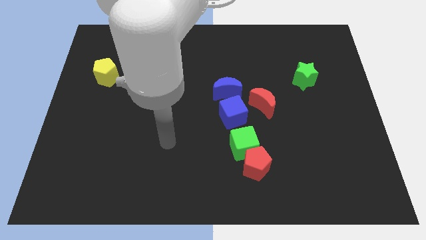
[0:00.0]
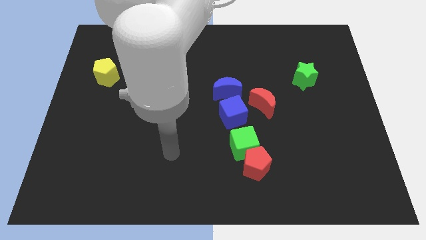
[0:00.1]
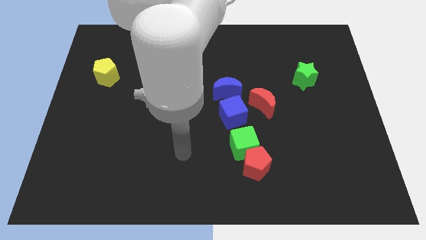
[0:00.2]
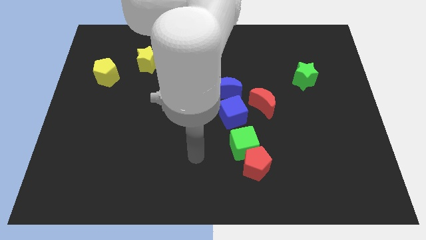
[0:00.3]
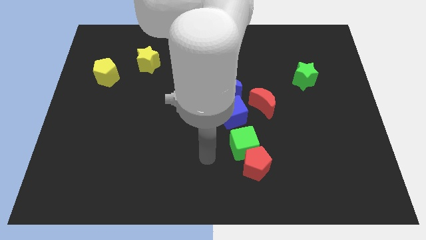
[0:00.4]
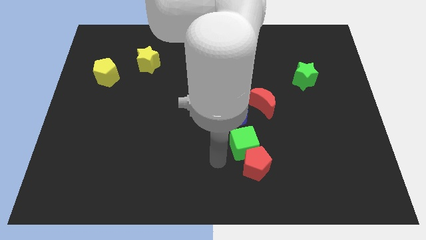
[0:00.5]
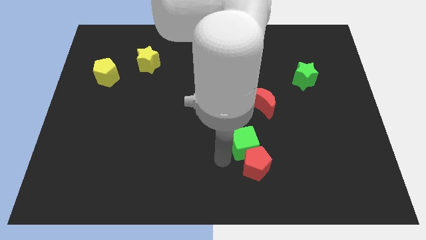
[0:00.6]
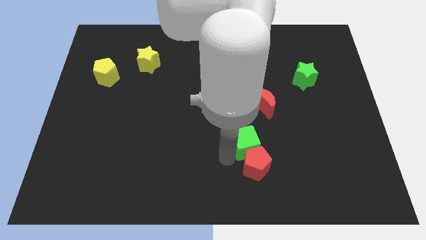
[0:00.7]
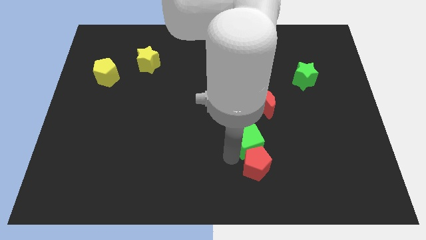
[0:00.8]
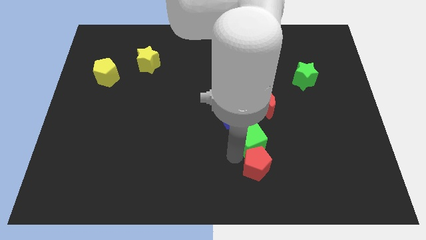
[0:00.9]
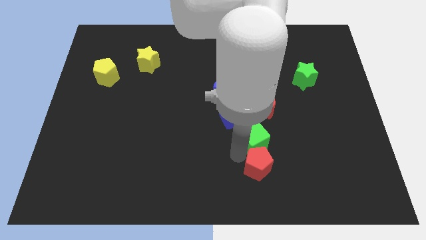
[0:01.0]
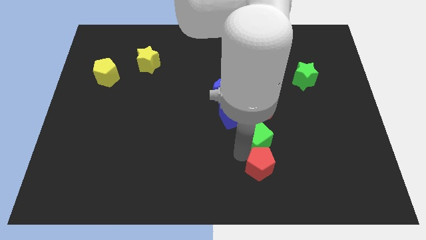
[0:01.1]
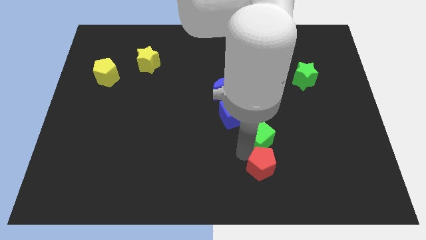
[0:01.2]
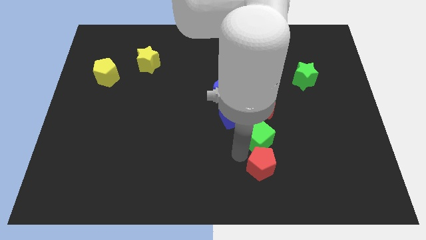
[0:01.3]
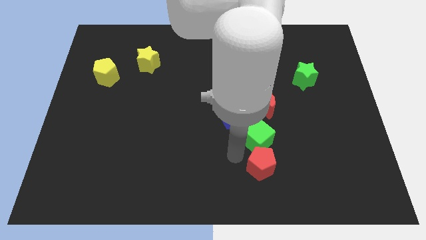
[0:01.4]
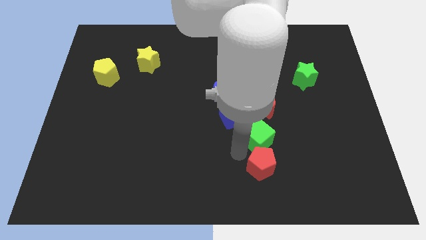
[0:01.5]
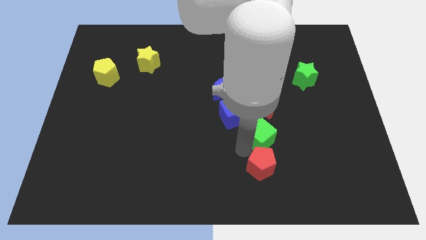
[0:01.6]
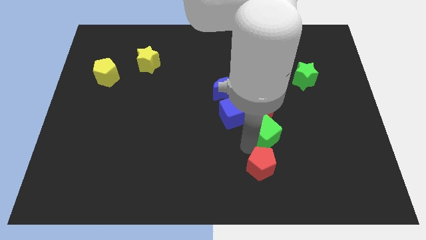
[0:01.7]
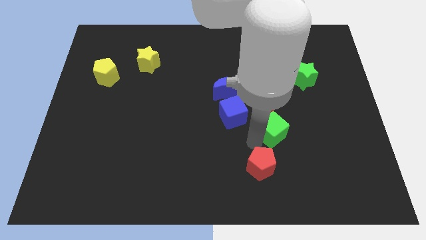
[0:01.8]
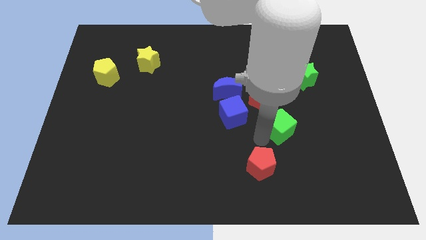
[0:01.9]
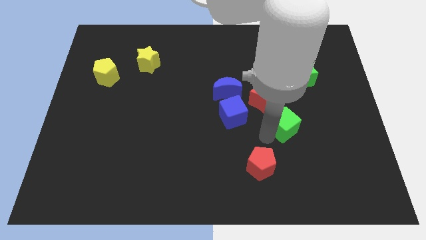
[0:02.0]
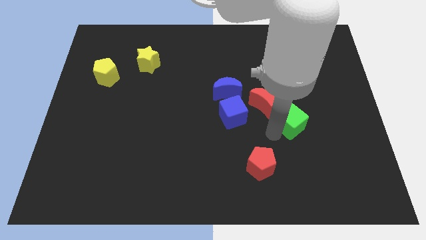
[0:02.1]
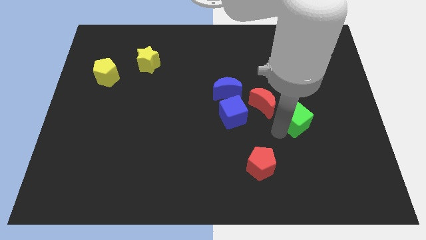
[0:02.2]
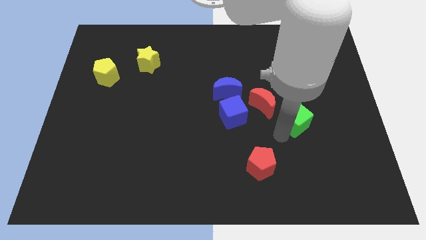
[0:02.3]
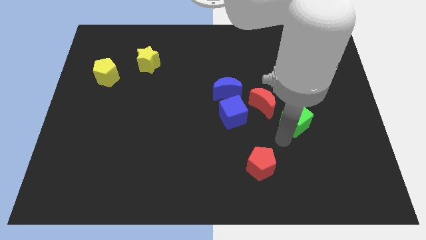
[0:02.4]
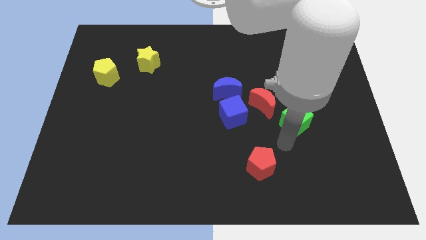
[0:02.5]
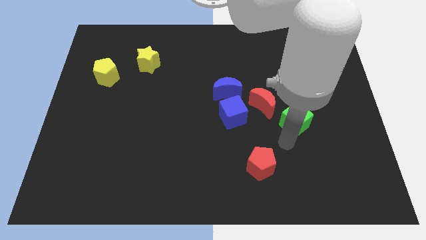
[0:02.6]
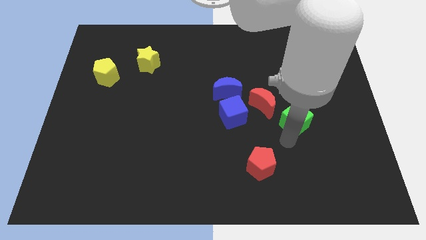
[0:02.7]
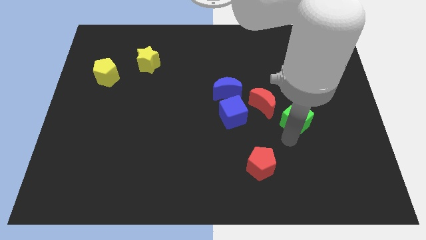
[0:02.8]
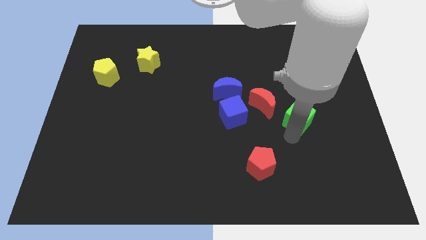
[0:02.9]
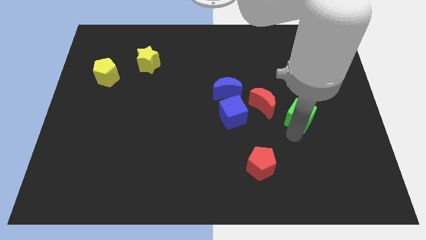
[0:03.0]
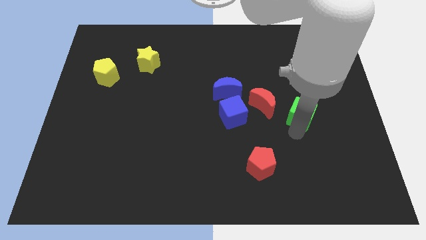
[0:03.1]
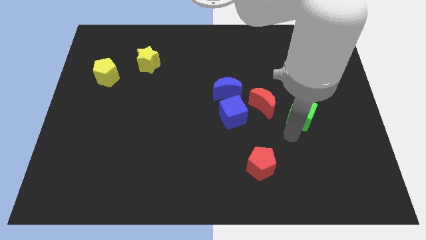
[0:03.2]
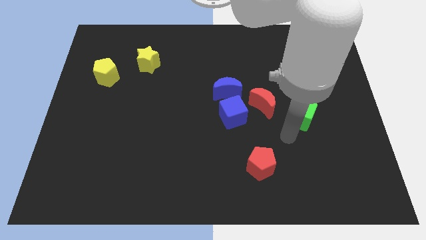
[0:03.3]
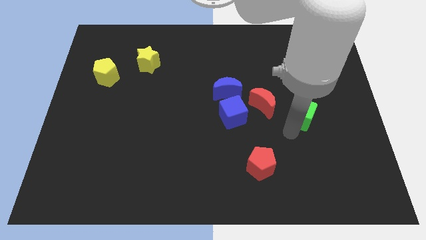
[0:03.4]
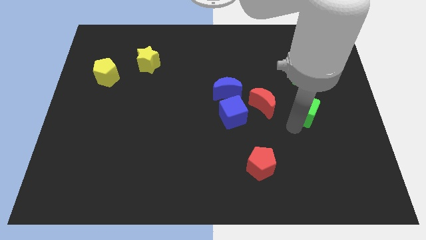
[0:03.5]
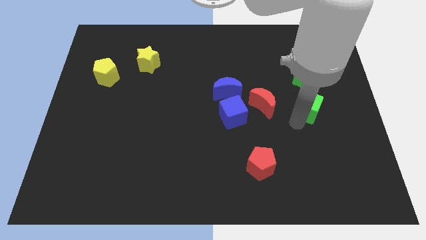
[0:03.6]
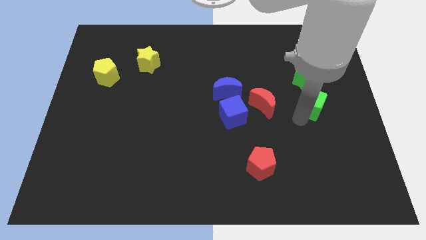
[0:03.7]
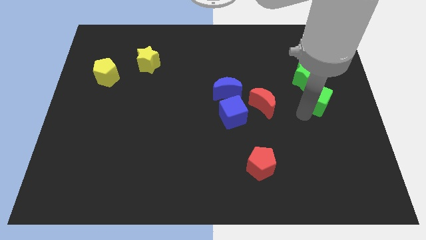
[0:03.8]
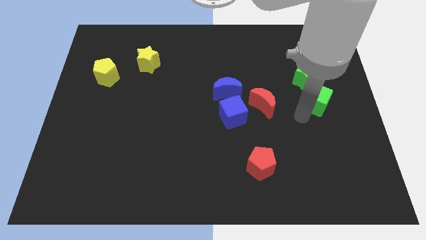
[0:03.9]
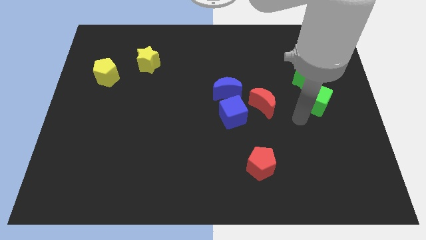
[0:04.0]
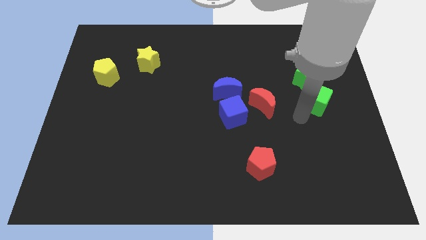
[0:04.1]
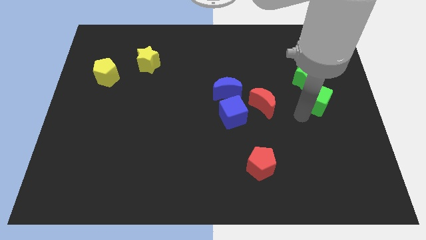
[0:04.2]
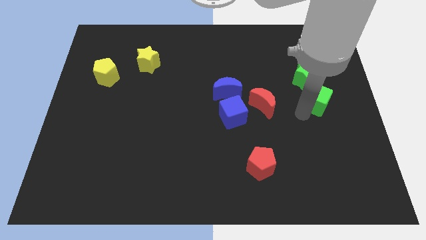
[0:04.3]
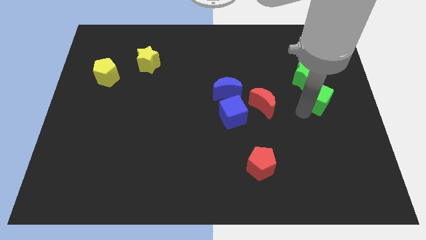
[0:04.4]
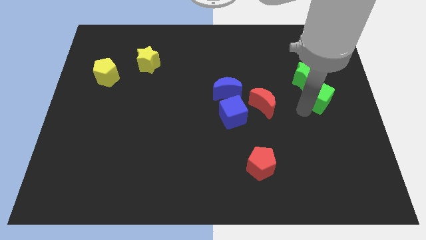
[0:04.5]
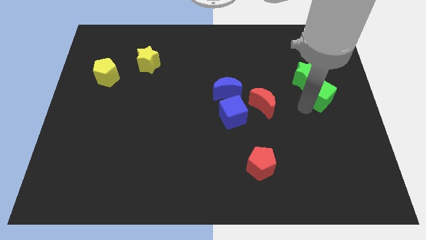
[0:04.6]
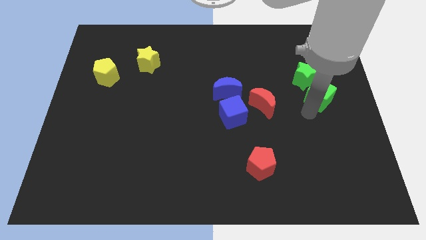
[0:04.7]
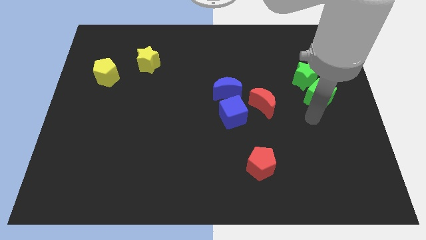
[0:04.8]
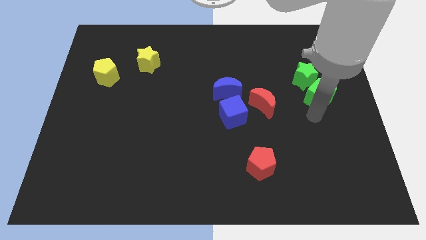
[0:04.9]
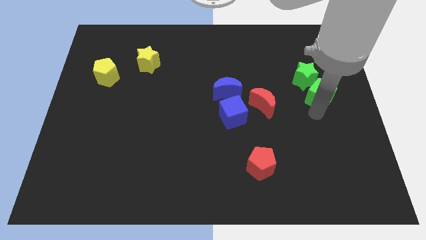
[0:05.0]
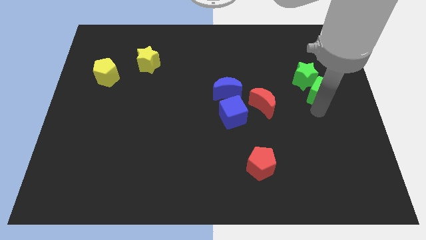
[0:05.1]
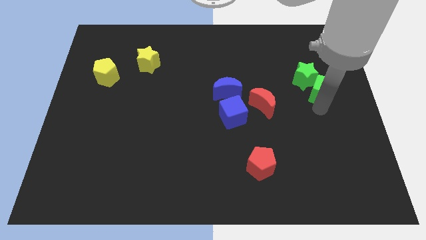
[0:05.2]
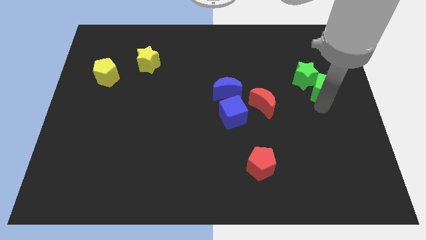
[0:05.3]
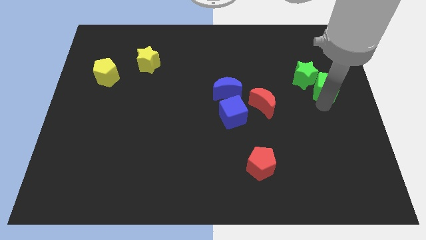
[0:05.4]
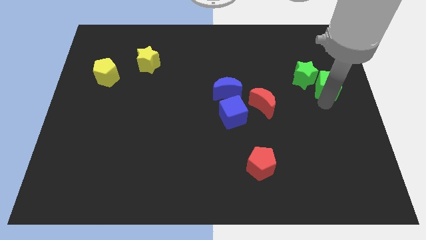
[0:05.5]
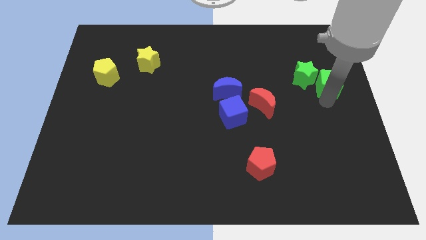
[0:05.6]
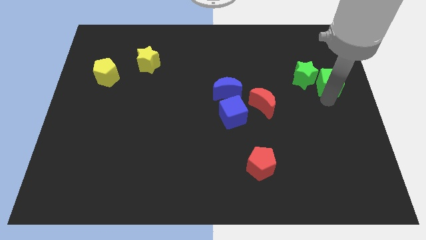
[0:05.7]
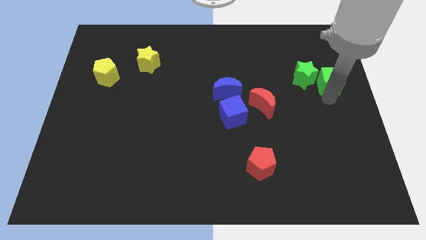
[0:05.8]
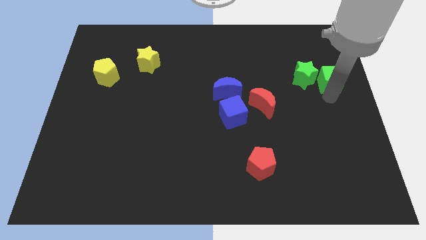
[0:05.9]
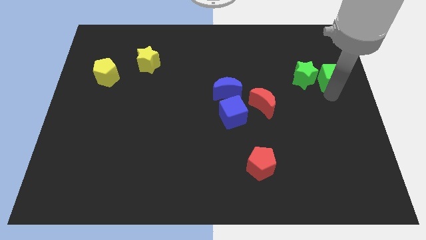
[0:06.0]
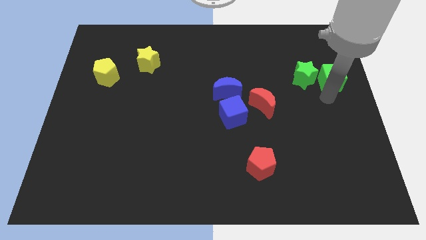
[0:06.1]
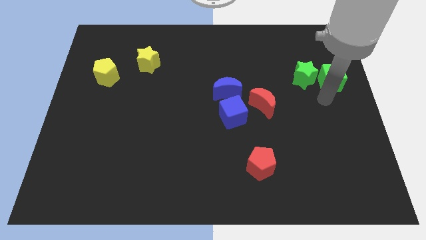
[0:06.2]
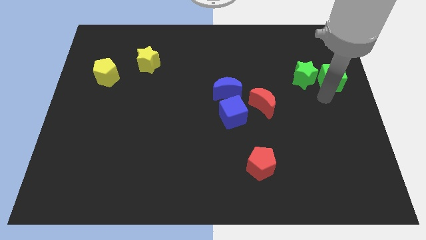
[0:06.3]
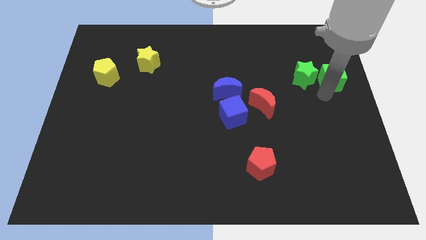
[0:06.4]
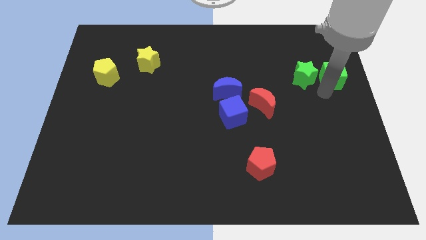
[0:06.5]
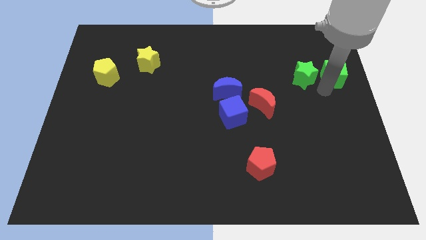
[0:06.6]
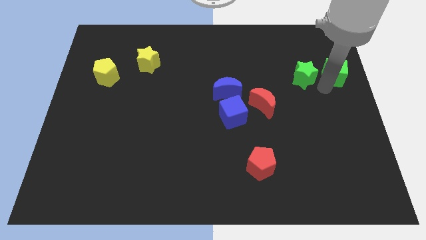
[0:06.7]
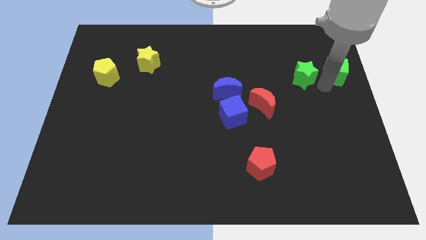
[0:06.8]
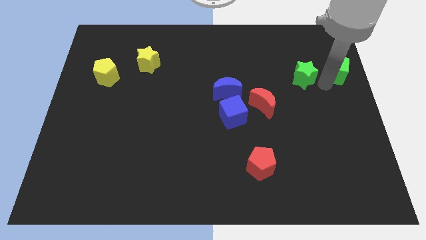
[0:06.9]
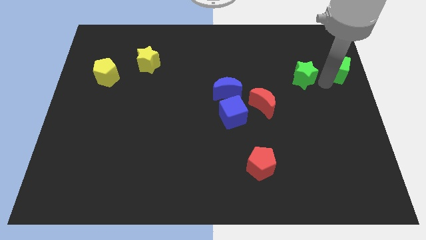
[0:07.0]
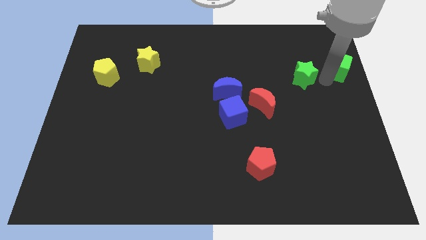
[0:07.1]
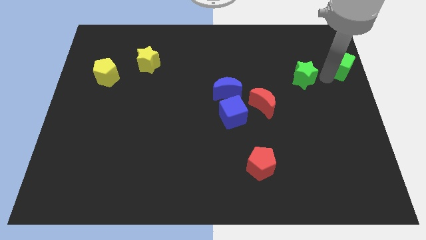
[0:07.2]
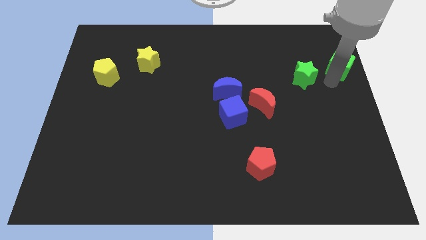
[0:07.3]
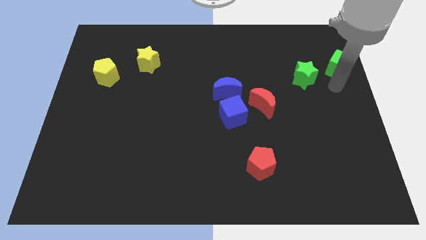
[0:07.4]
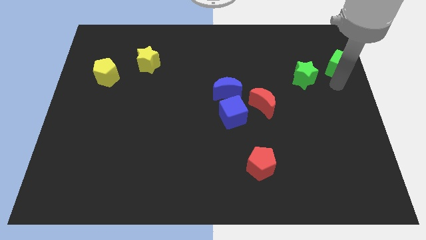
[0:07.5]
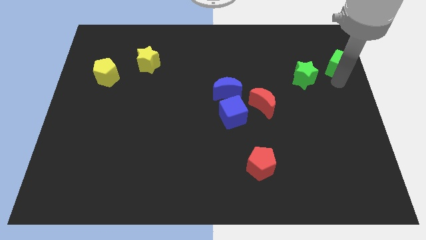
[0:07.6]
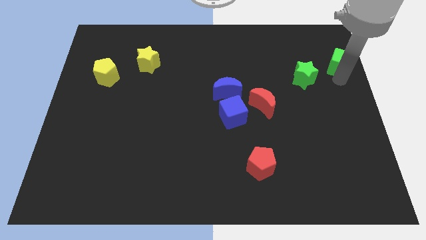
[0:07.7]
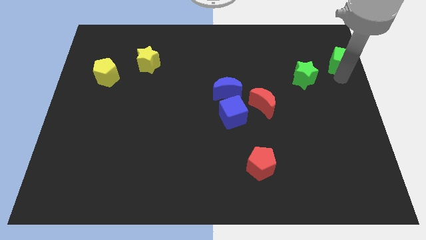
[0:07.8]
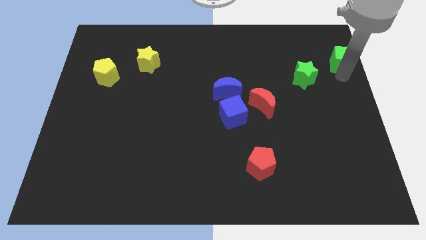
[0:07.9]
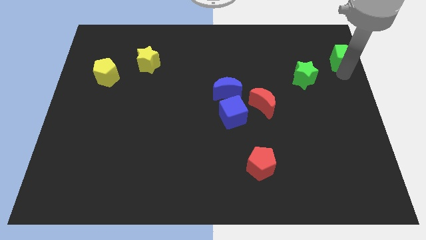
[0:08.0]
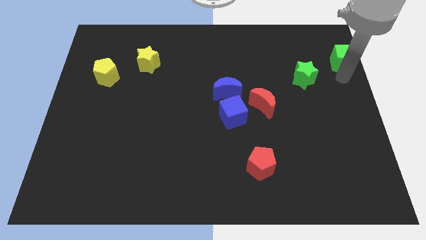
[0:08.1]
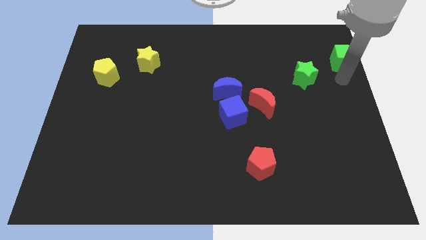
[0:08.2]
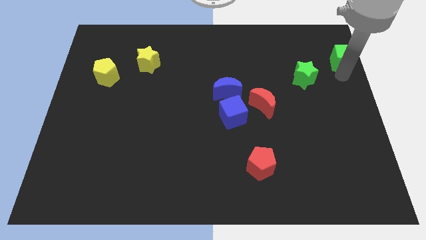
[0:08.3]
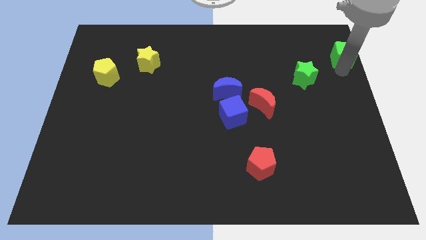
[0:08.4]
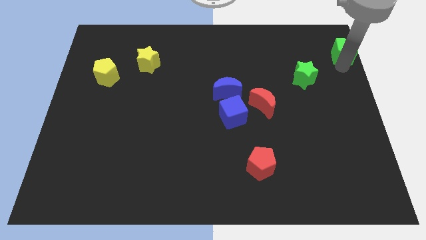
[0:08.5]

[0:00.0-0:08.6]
put the green cube to the top right corner
